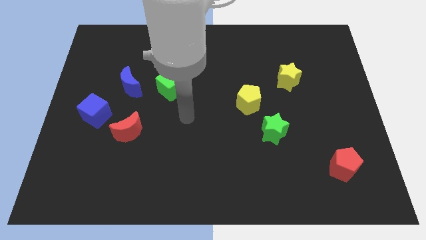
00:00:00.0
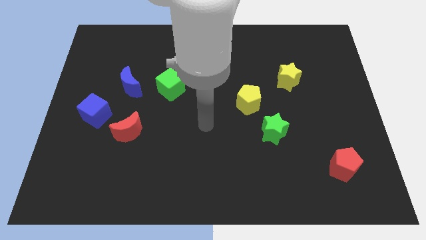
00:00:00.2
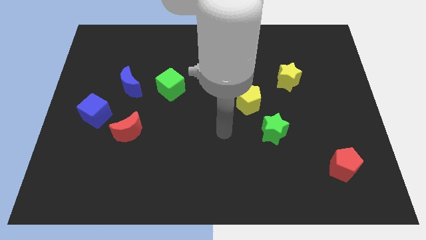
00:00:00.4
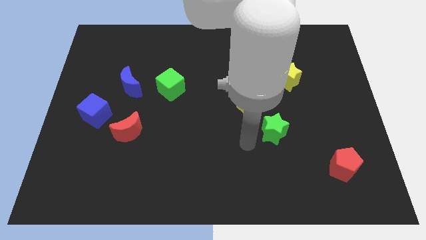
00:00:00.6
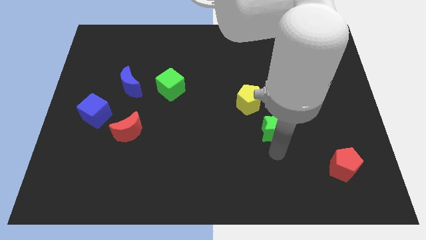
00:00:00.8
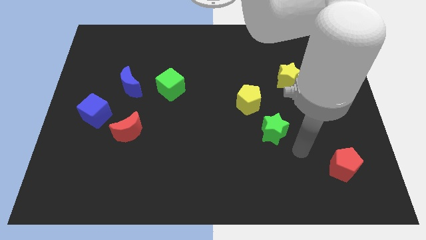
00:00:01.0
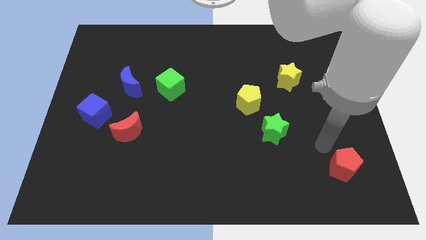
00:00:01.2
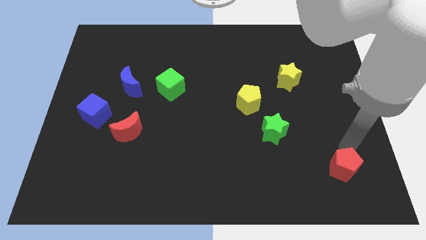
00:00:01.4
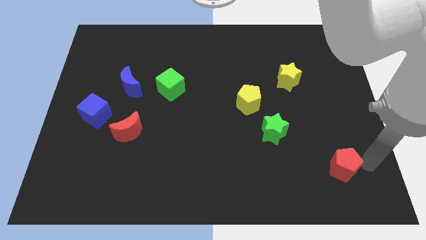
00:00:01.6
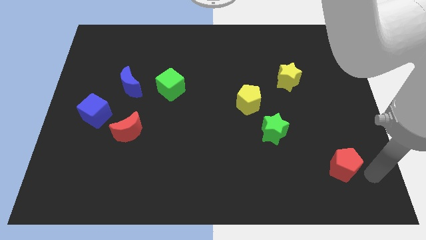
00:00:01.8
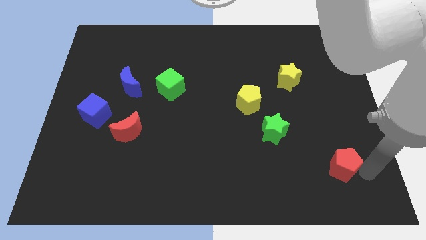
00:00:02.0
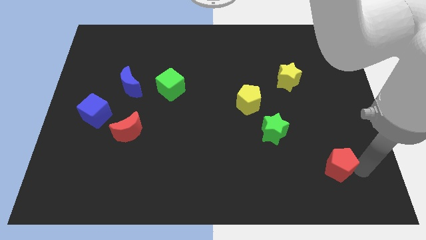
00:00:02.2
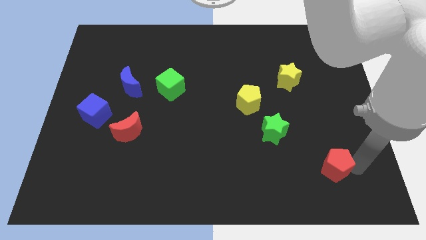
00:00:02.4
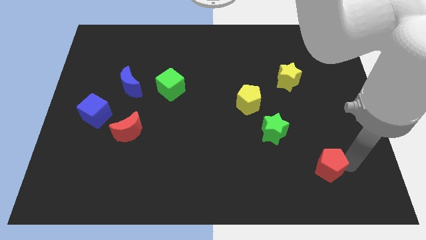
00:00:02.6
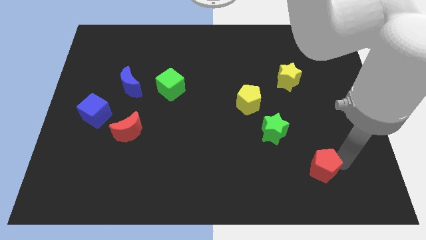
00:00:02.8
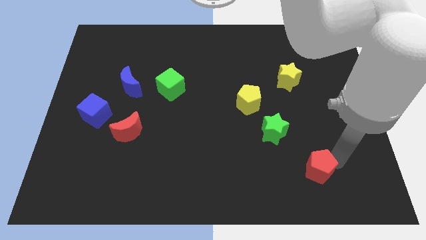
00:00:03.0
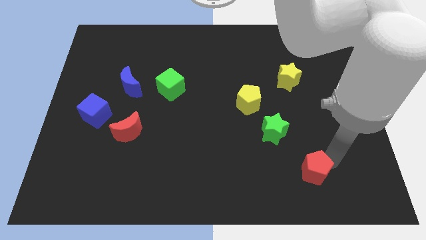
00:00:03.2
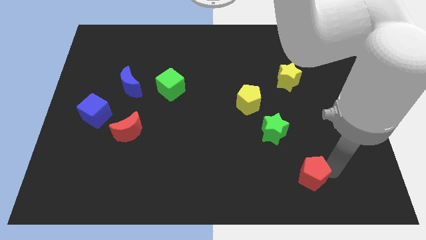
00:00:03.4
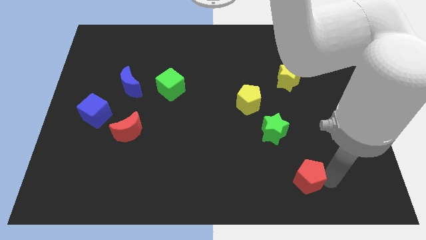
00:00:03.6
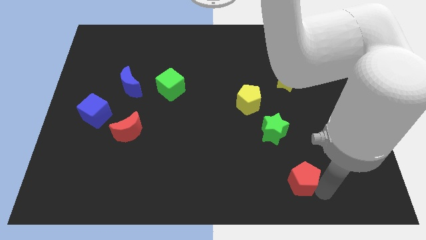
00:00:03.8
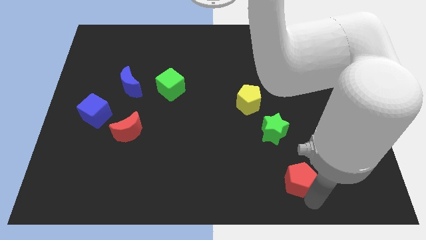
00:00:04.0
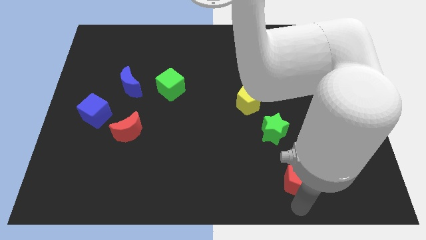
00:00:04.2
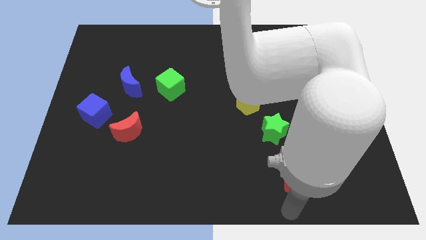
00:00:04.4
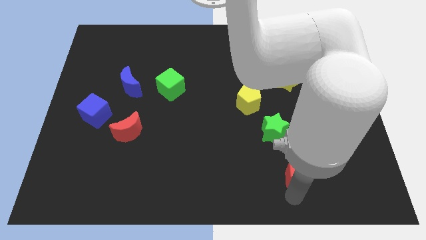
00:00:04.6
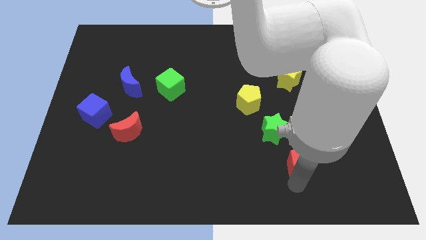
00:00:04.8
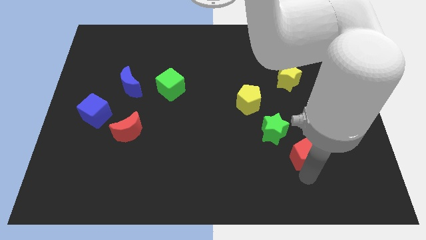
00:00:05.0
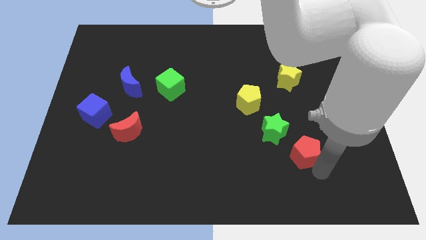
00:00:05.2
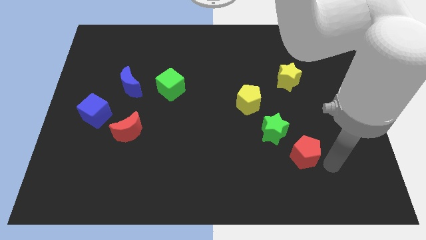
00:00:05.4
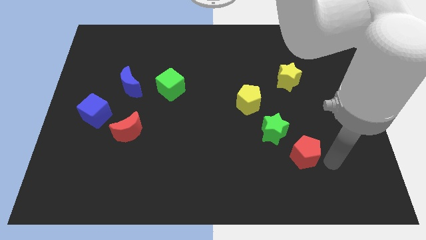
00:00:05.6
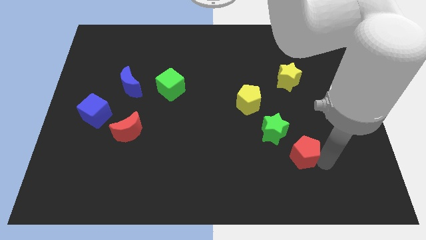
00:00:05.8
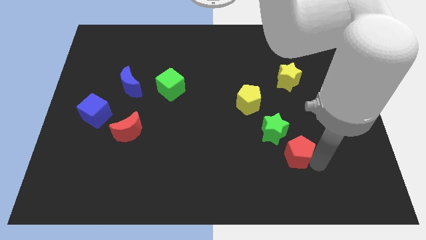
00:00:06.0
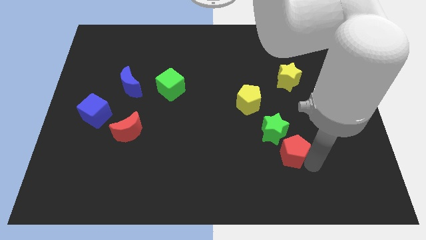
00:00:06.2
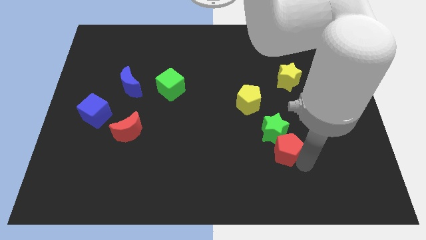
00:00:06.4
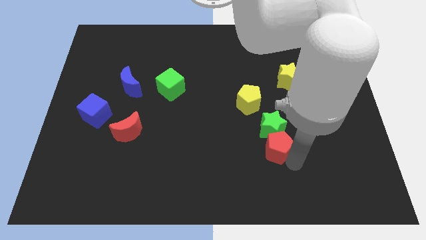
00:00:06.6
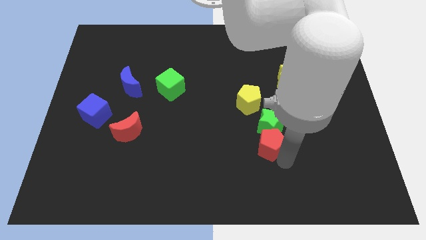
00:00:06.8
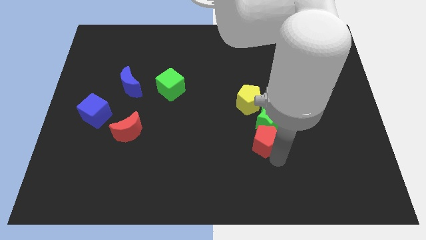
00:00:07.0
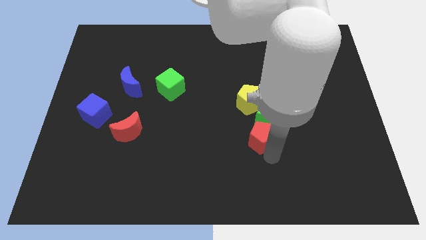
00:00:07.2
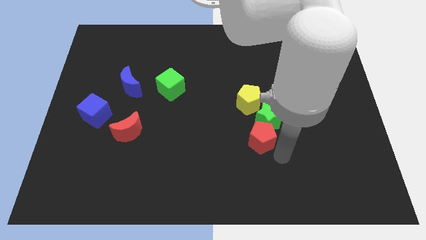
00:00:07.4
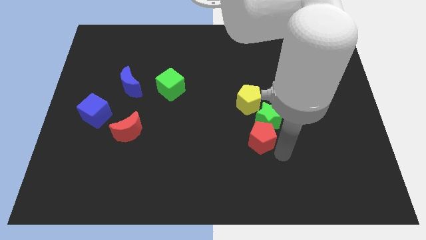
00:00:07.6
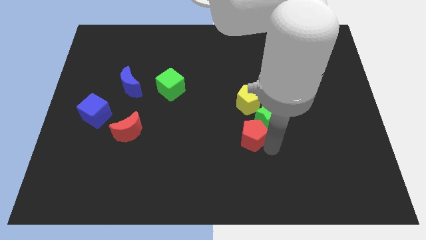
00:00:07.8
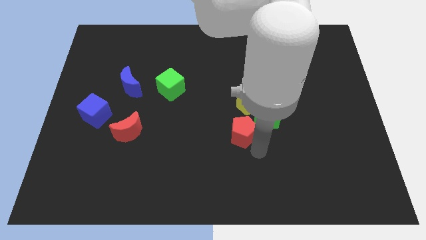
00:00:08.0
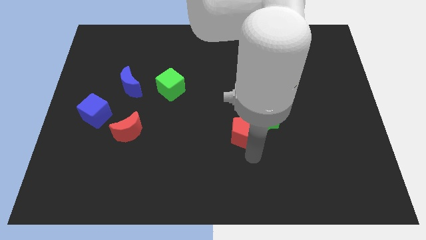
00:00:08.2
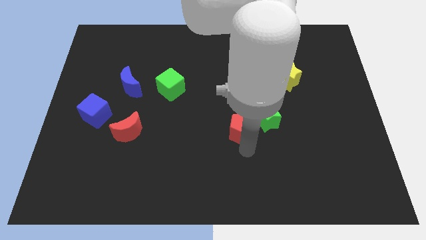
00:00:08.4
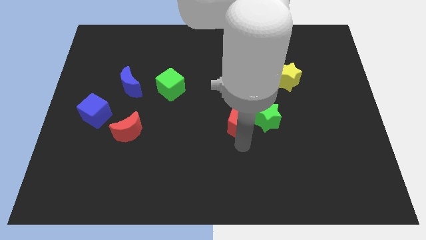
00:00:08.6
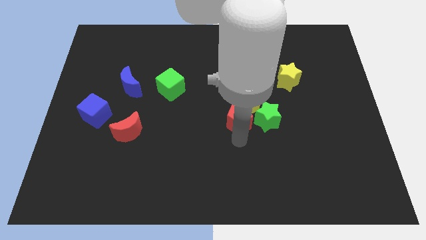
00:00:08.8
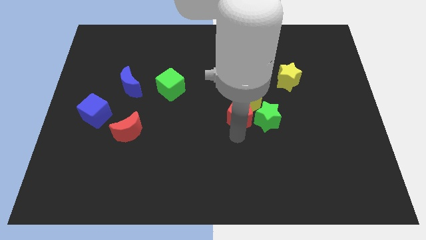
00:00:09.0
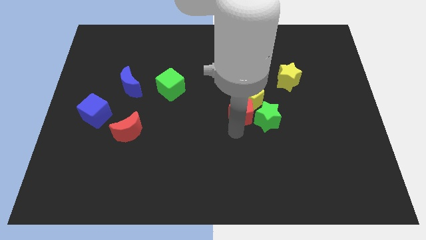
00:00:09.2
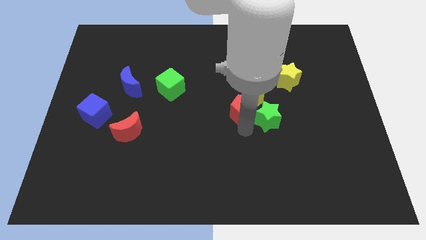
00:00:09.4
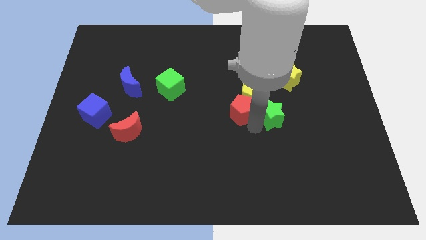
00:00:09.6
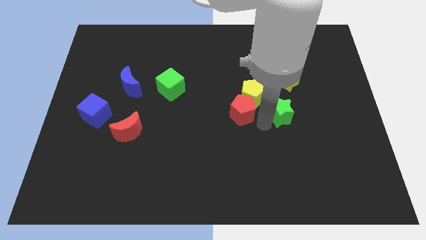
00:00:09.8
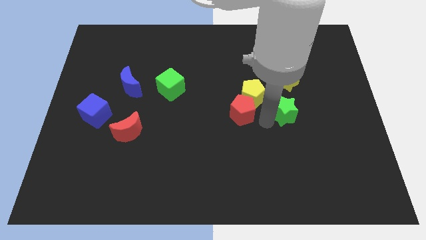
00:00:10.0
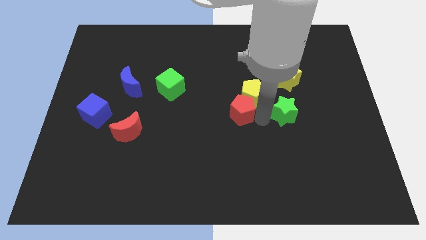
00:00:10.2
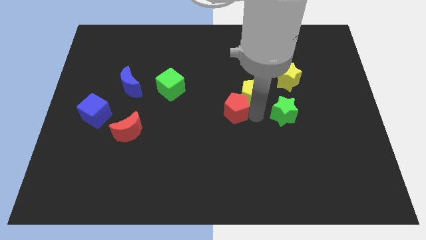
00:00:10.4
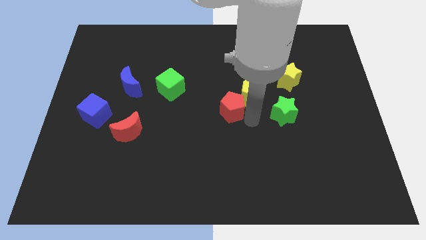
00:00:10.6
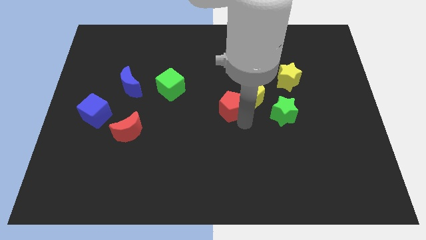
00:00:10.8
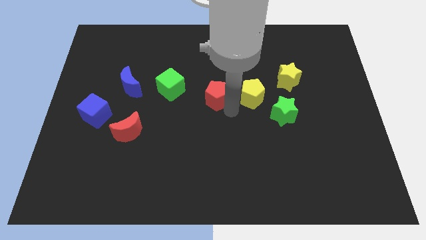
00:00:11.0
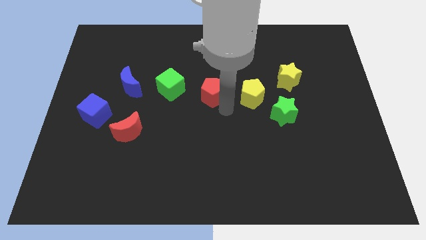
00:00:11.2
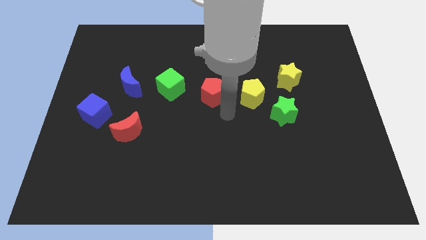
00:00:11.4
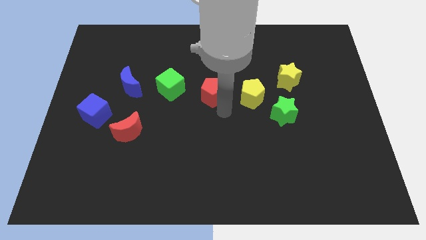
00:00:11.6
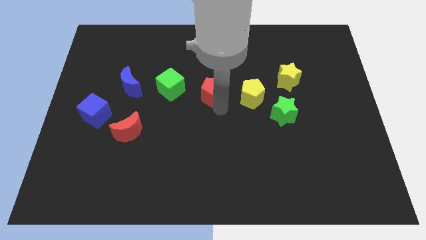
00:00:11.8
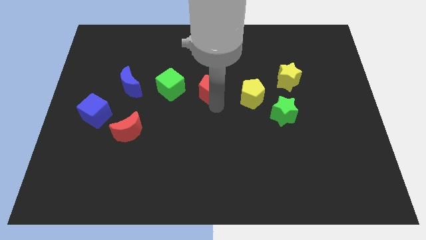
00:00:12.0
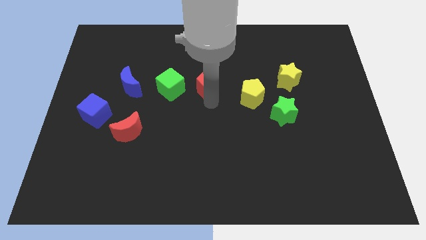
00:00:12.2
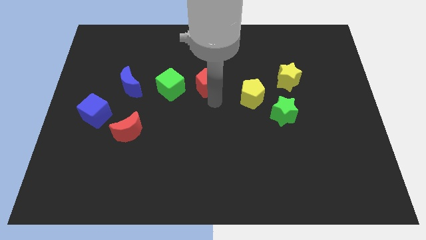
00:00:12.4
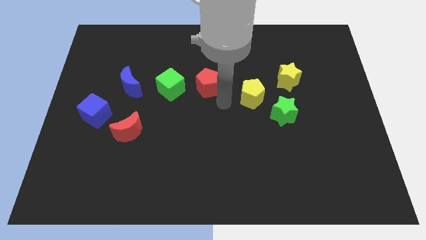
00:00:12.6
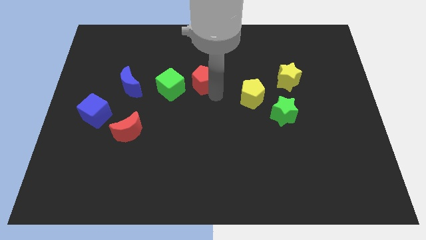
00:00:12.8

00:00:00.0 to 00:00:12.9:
move the red pentagon to the top right of the green cube
